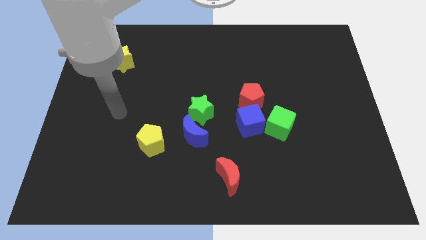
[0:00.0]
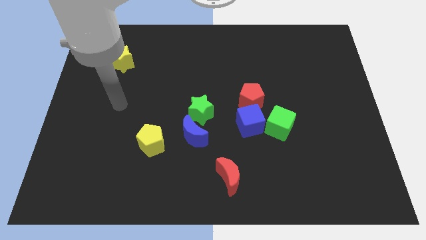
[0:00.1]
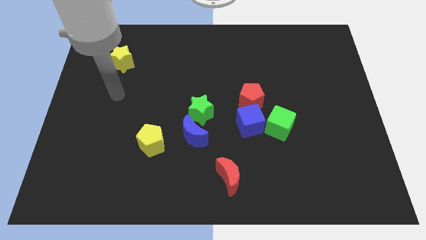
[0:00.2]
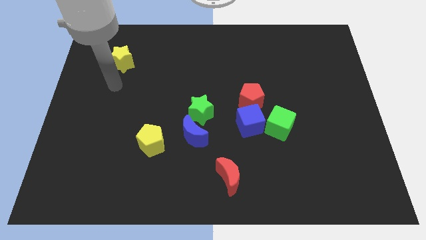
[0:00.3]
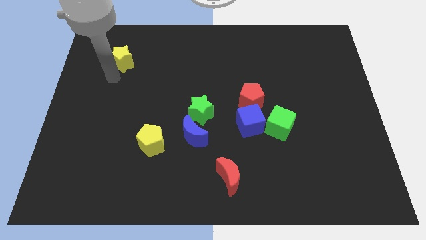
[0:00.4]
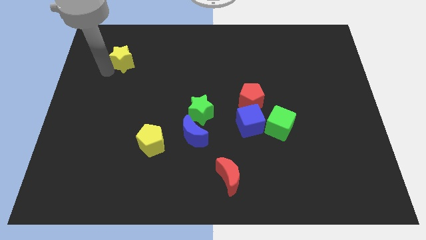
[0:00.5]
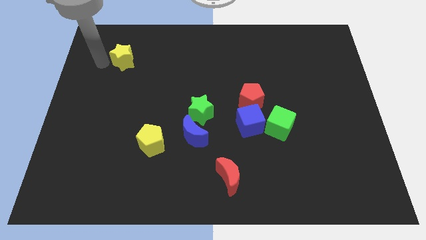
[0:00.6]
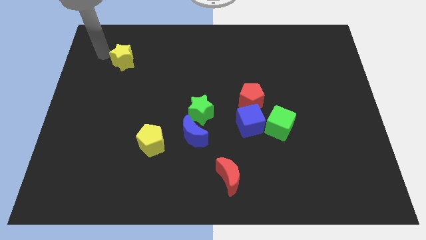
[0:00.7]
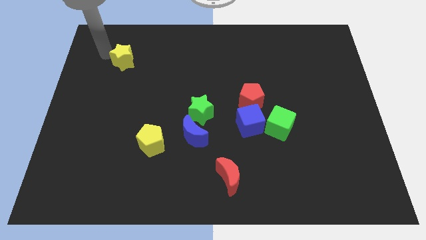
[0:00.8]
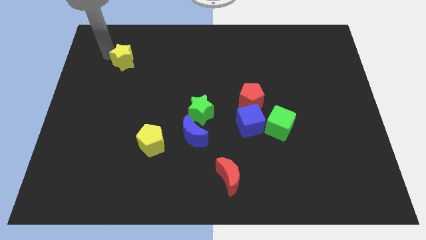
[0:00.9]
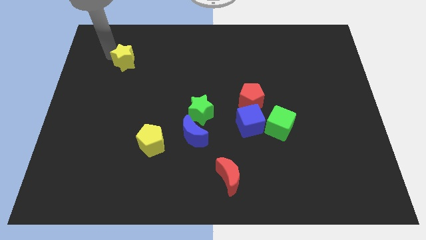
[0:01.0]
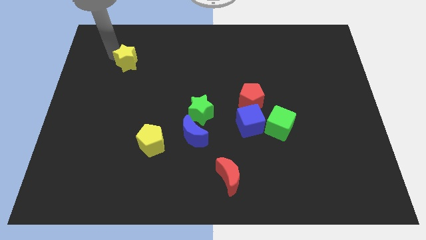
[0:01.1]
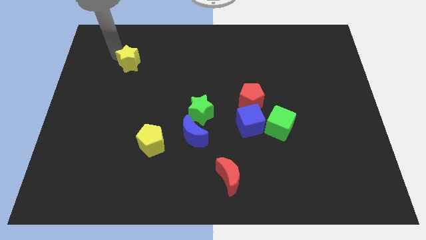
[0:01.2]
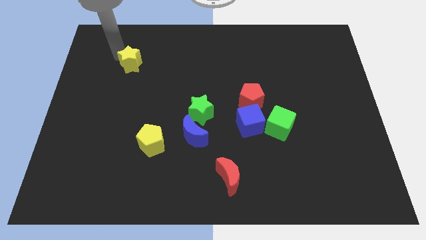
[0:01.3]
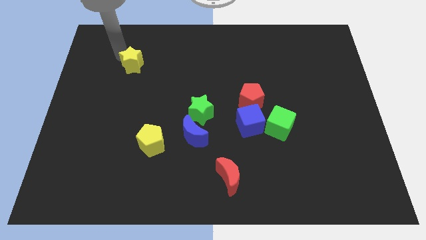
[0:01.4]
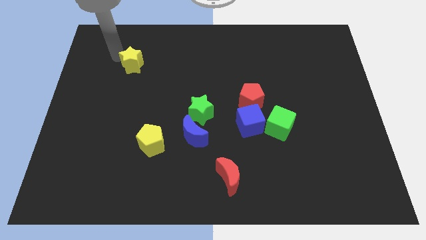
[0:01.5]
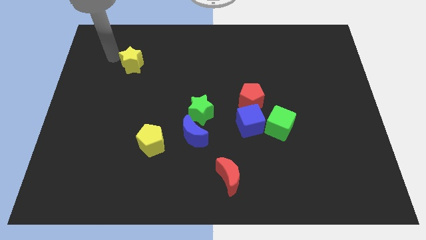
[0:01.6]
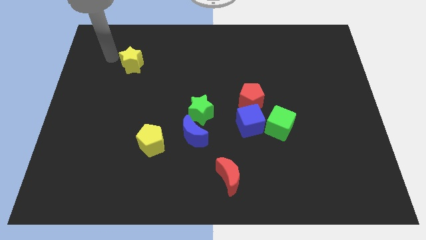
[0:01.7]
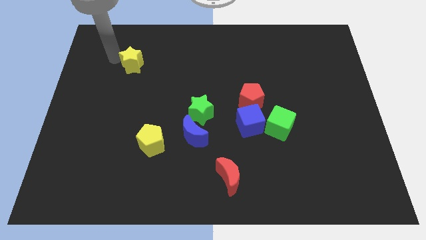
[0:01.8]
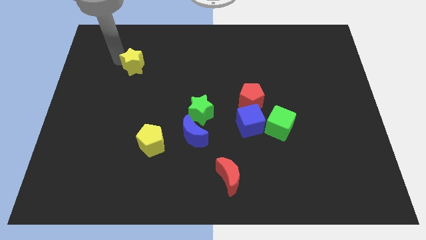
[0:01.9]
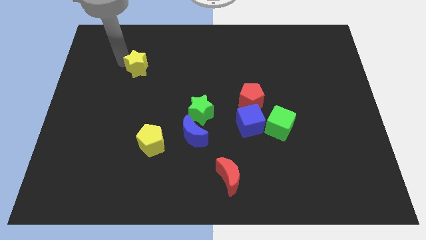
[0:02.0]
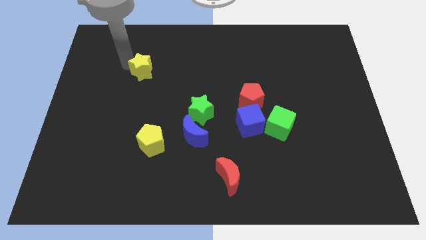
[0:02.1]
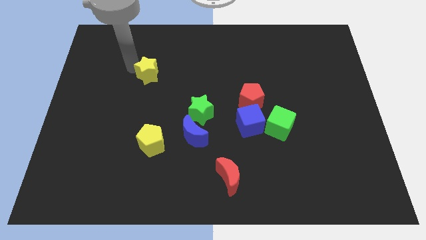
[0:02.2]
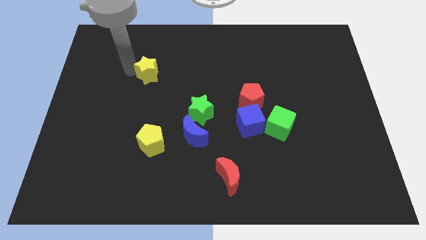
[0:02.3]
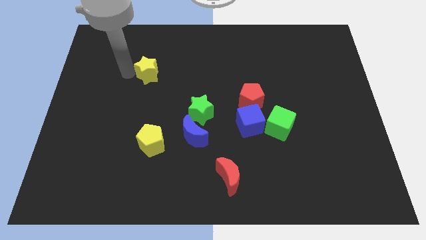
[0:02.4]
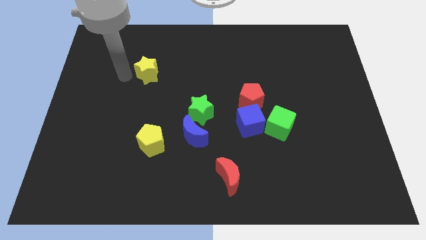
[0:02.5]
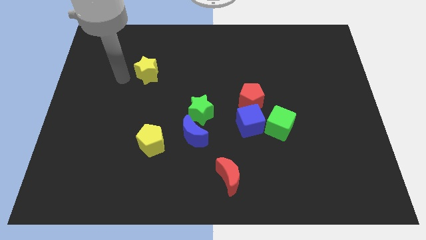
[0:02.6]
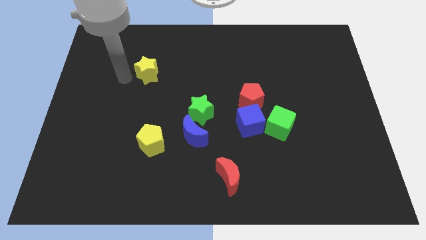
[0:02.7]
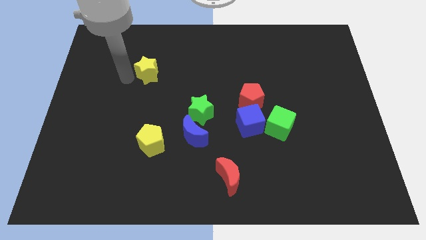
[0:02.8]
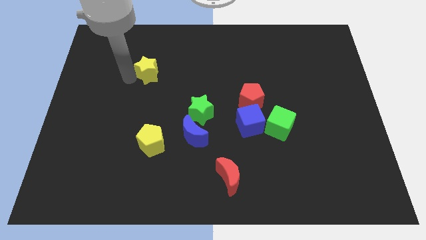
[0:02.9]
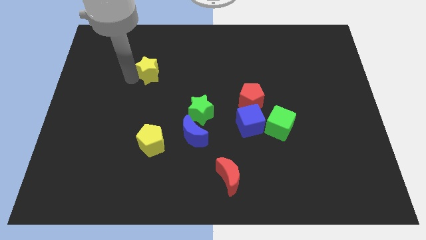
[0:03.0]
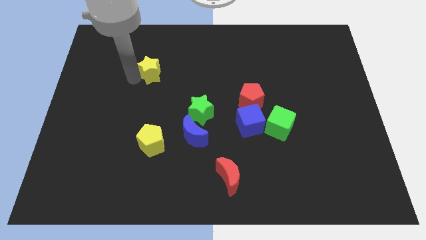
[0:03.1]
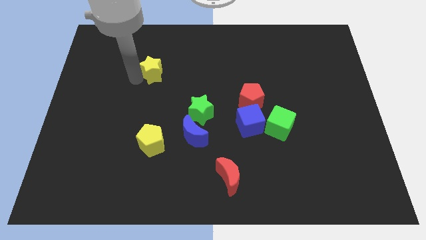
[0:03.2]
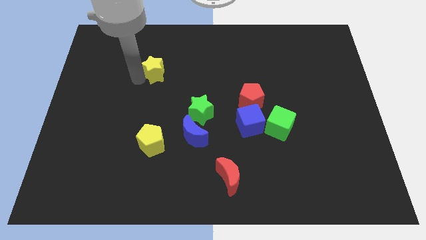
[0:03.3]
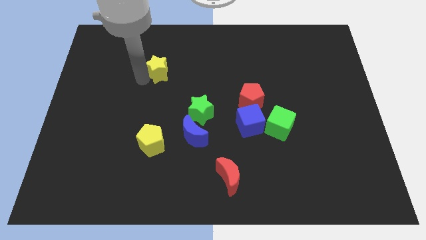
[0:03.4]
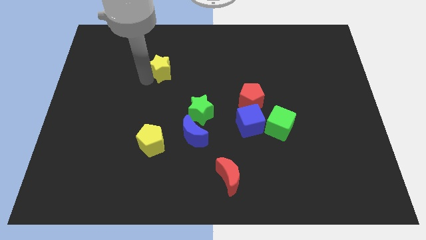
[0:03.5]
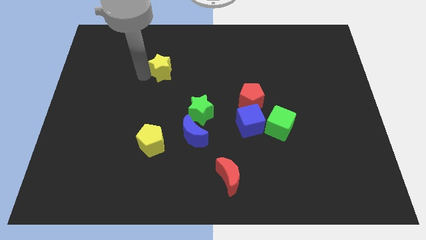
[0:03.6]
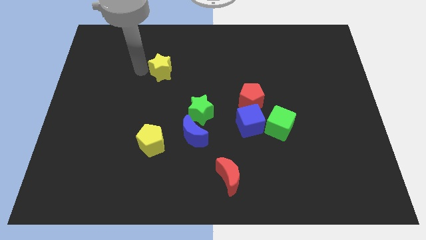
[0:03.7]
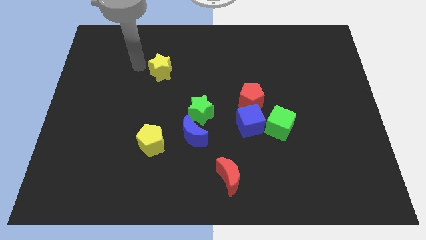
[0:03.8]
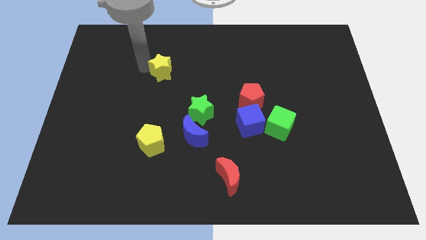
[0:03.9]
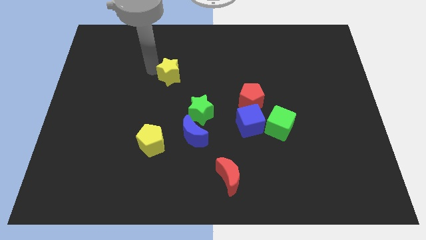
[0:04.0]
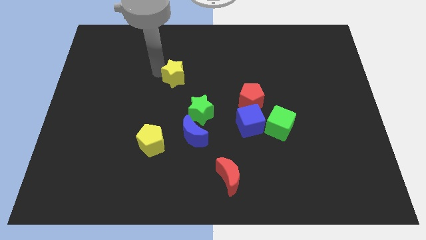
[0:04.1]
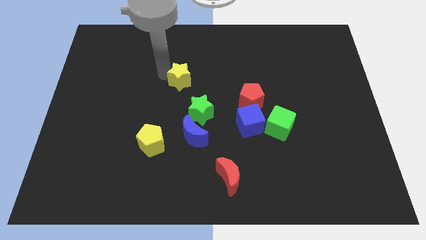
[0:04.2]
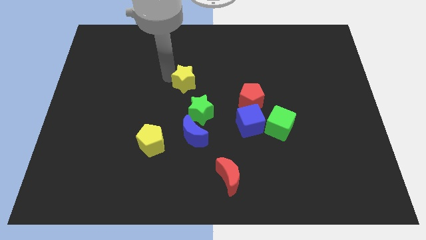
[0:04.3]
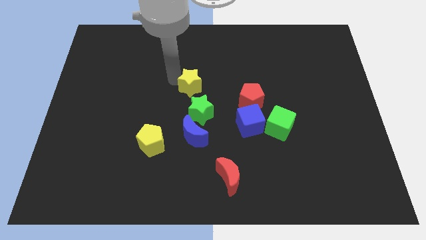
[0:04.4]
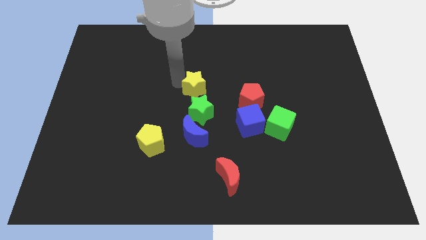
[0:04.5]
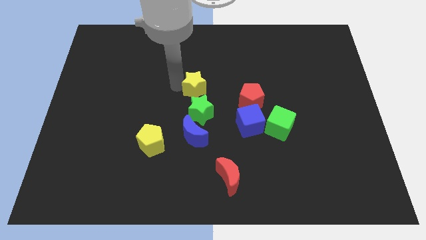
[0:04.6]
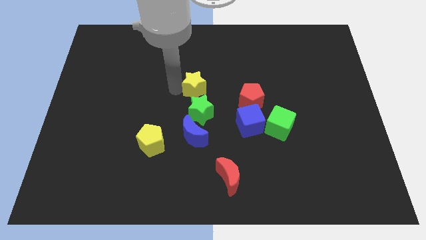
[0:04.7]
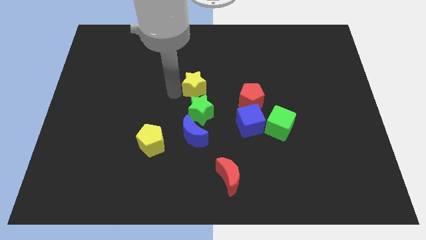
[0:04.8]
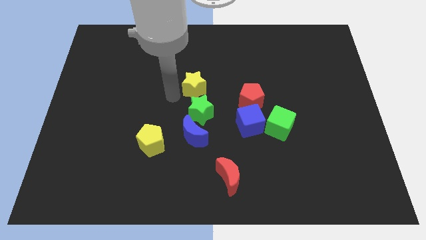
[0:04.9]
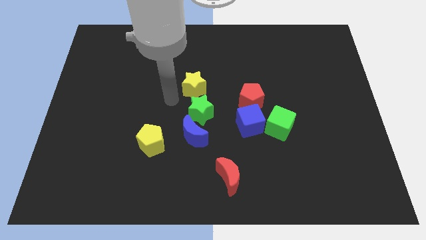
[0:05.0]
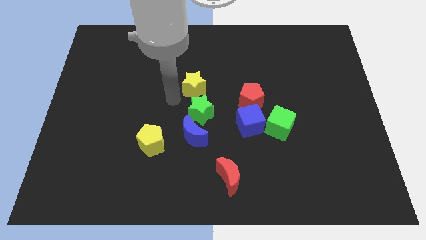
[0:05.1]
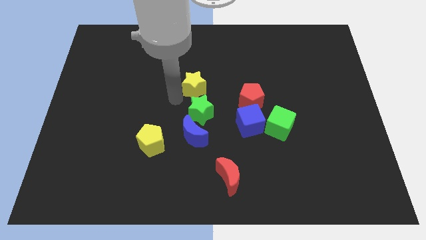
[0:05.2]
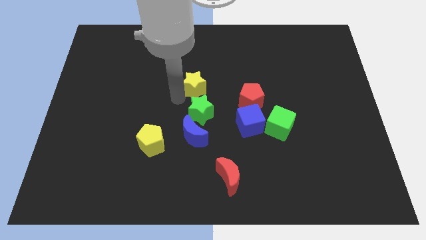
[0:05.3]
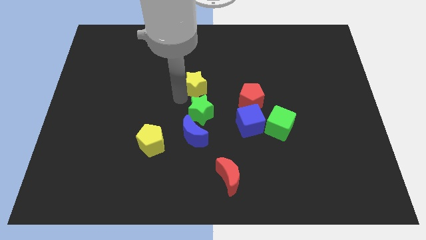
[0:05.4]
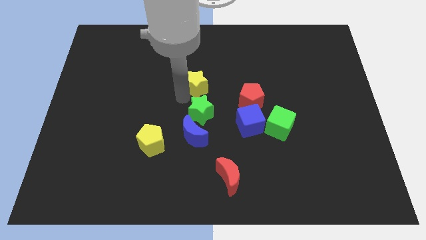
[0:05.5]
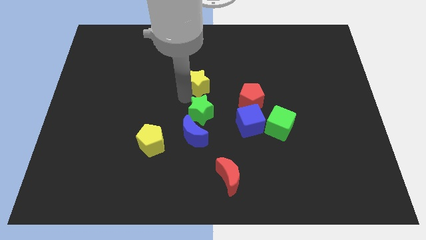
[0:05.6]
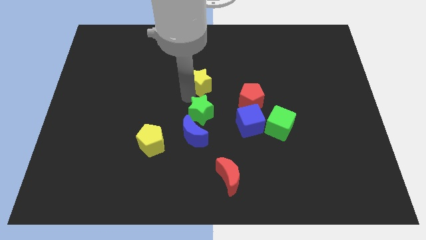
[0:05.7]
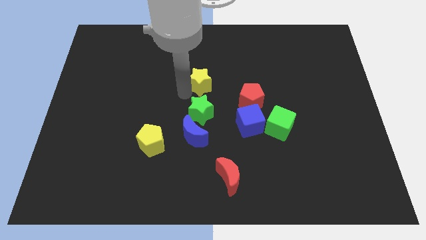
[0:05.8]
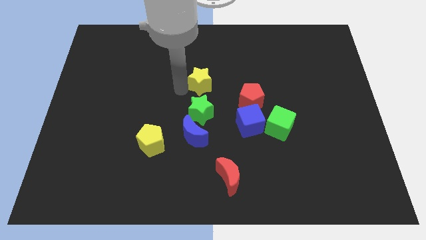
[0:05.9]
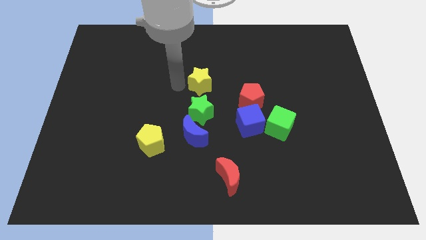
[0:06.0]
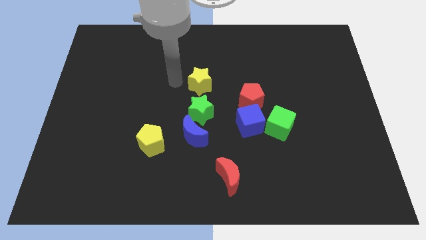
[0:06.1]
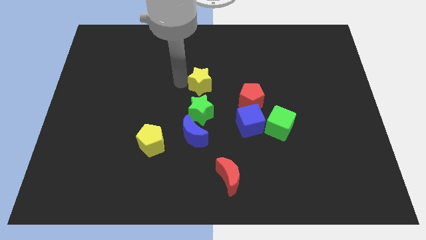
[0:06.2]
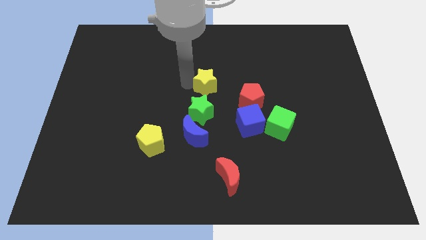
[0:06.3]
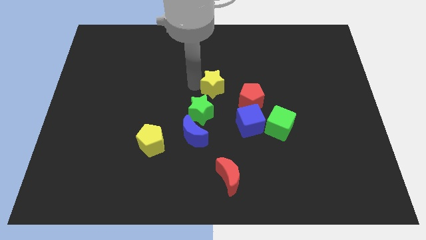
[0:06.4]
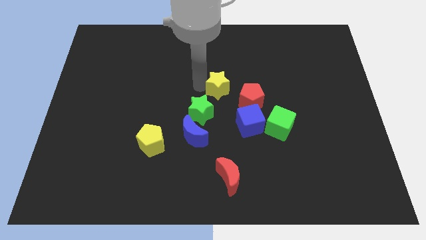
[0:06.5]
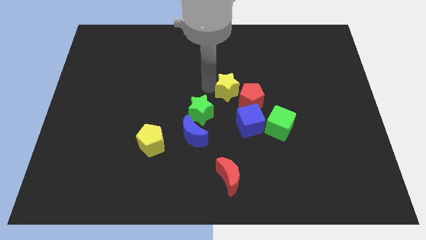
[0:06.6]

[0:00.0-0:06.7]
move the yellow star towards the red pentagon
